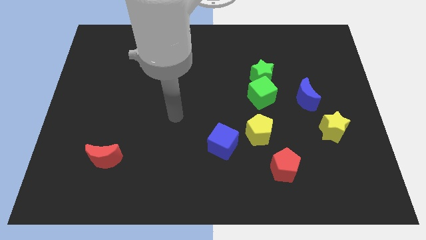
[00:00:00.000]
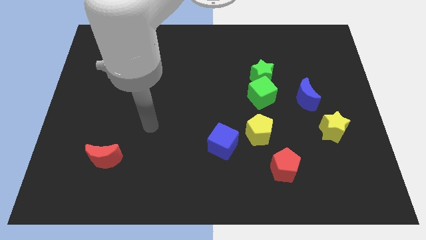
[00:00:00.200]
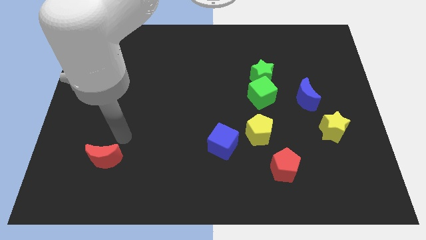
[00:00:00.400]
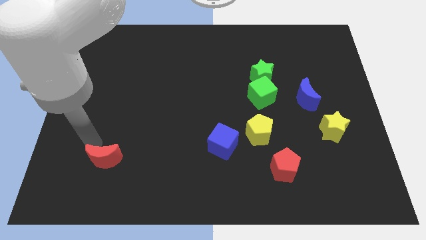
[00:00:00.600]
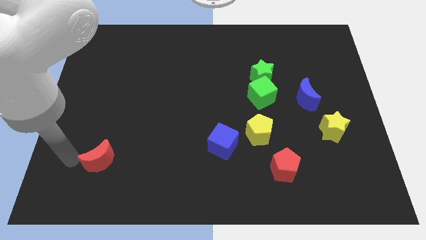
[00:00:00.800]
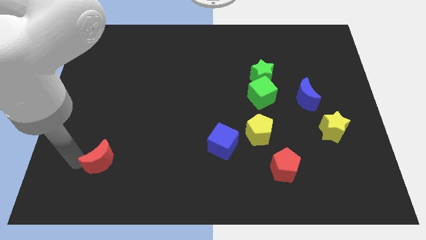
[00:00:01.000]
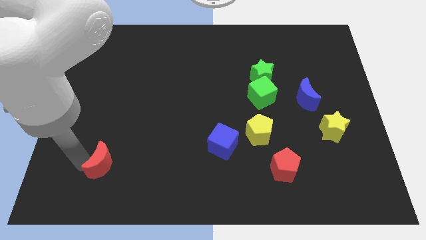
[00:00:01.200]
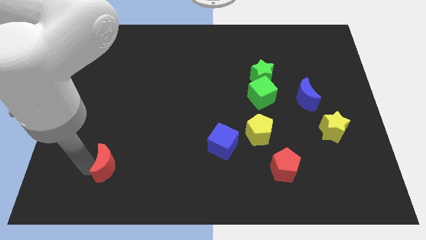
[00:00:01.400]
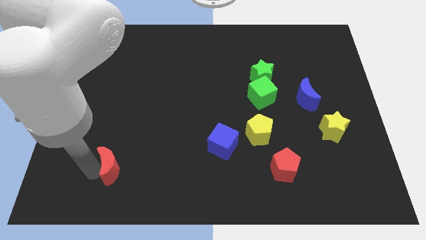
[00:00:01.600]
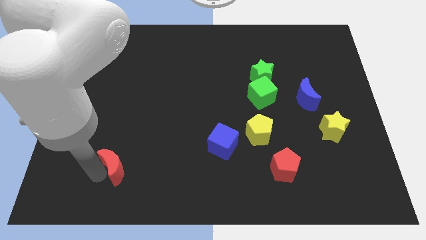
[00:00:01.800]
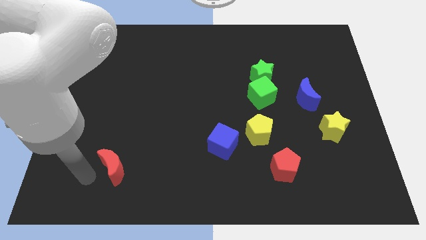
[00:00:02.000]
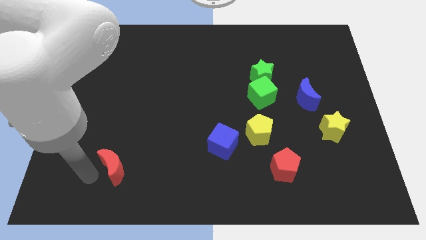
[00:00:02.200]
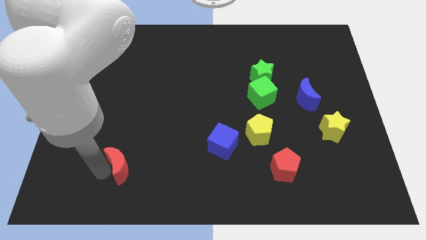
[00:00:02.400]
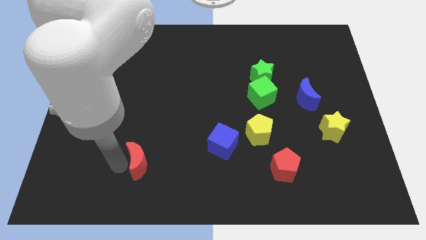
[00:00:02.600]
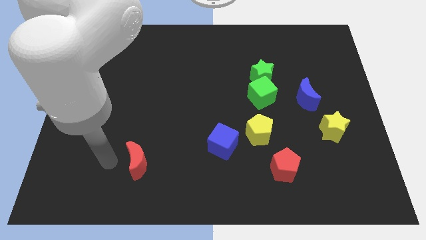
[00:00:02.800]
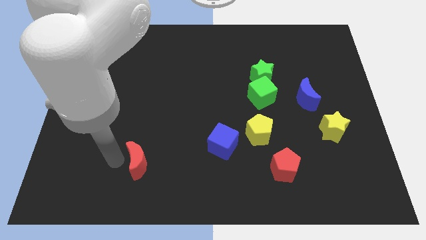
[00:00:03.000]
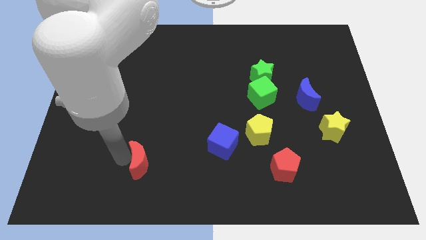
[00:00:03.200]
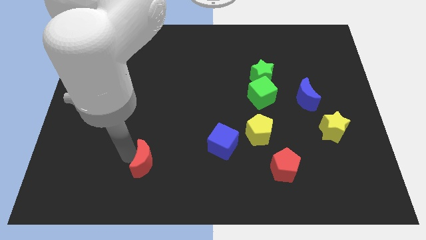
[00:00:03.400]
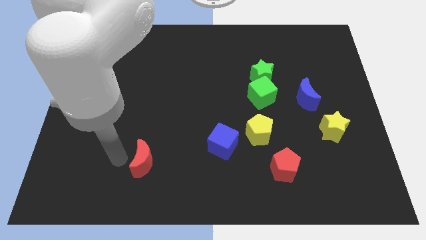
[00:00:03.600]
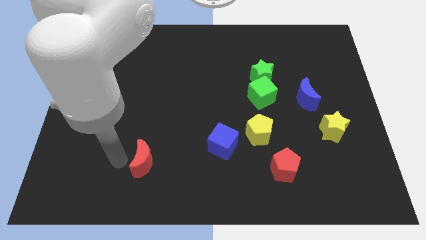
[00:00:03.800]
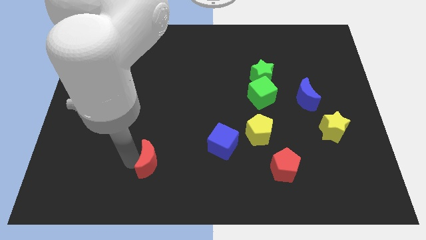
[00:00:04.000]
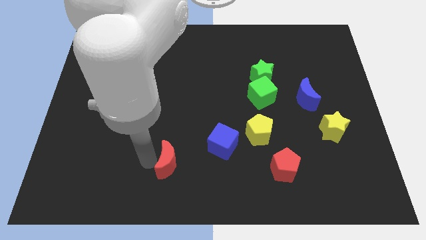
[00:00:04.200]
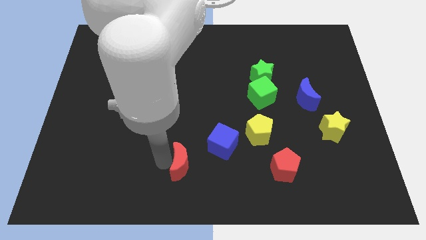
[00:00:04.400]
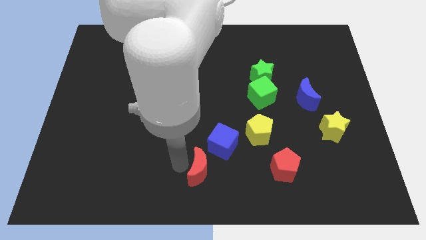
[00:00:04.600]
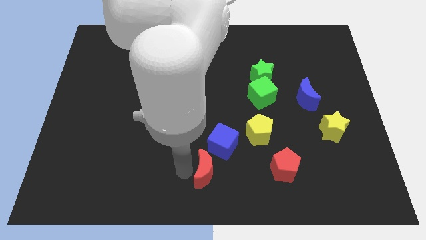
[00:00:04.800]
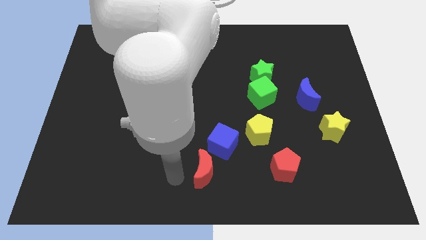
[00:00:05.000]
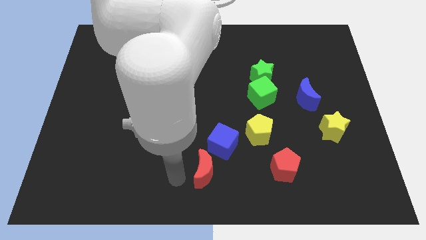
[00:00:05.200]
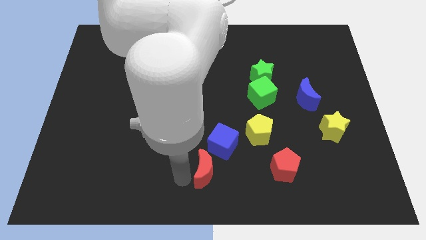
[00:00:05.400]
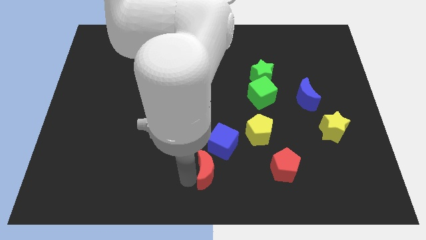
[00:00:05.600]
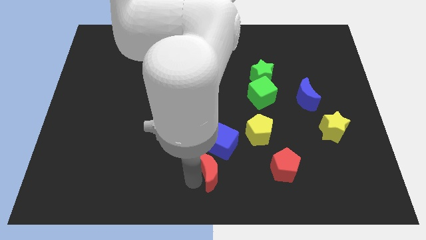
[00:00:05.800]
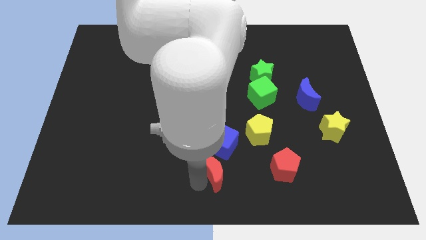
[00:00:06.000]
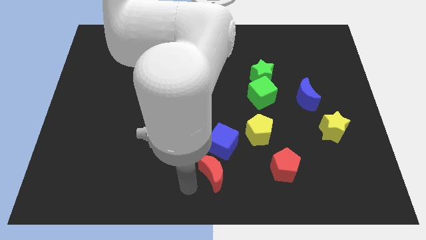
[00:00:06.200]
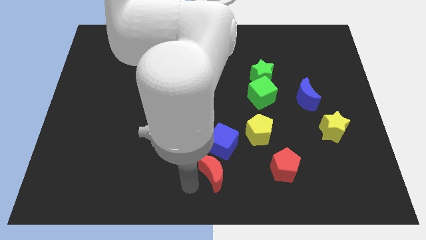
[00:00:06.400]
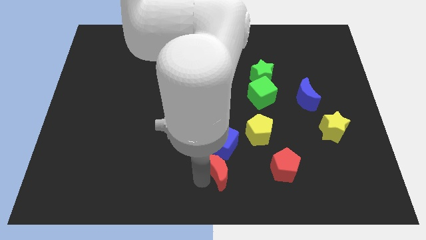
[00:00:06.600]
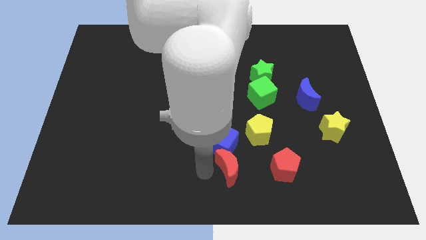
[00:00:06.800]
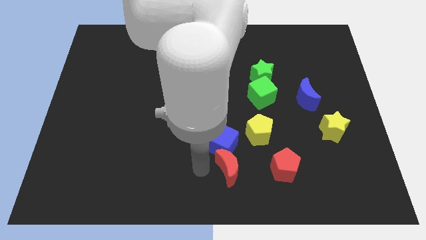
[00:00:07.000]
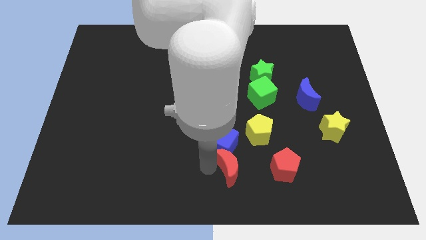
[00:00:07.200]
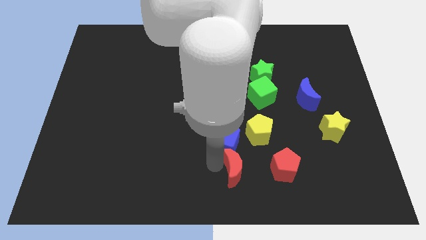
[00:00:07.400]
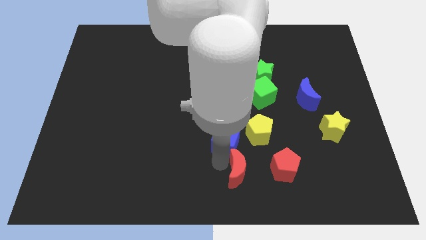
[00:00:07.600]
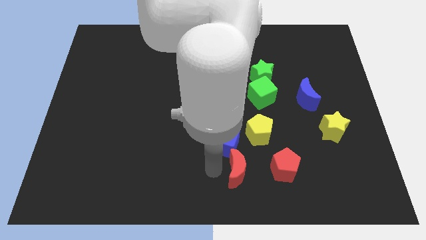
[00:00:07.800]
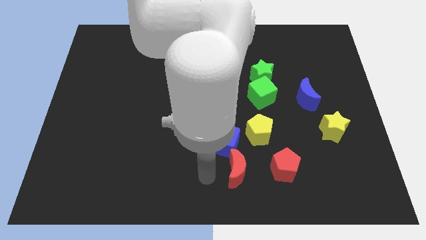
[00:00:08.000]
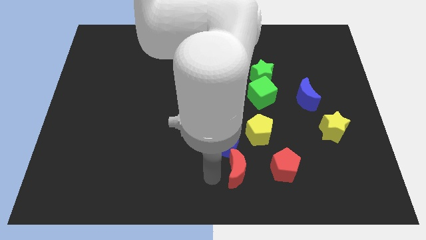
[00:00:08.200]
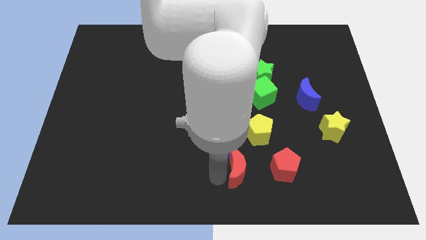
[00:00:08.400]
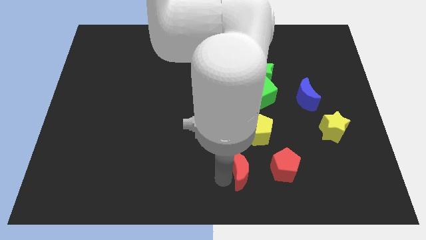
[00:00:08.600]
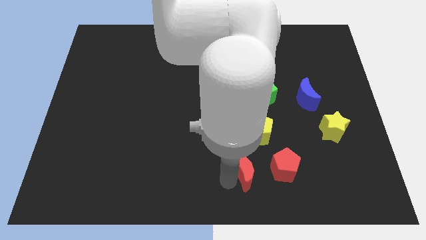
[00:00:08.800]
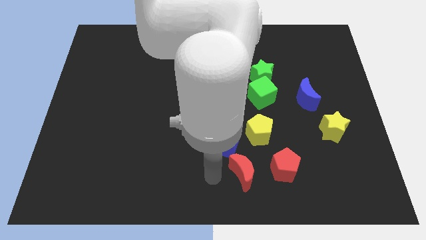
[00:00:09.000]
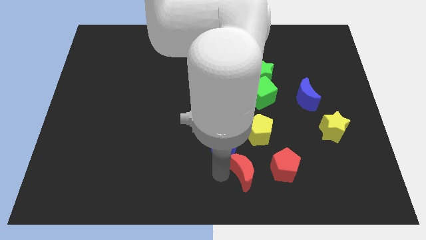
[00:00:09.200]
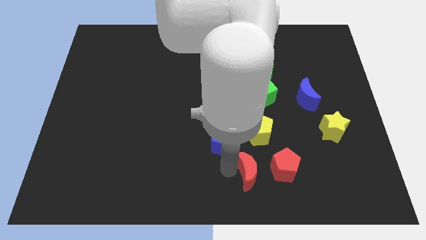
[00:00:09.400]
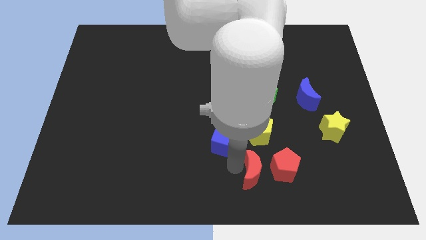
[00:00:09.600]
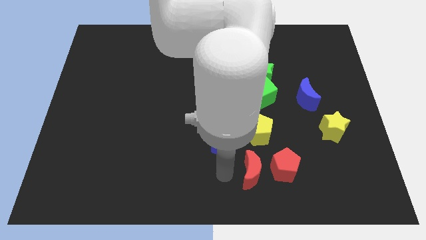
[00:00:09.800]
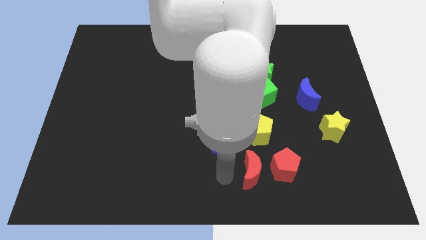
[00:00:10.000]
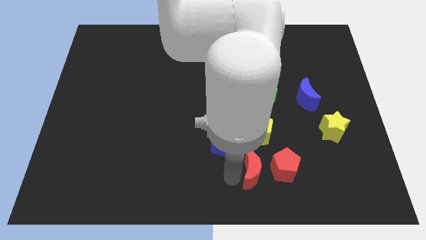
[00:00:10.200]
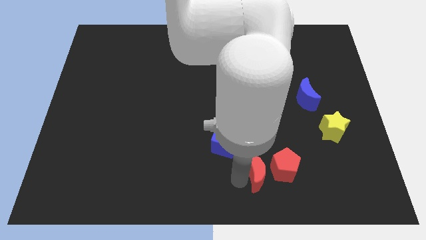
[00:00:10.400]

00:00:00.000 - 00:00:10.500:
put the red moon towards the red pentagon

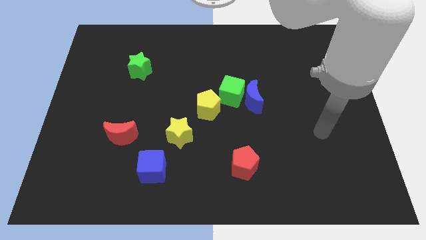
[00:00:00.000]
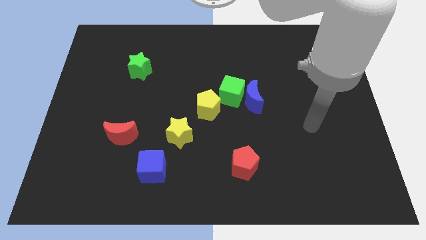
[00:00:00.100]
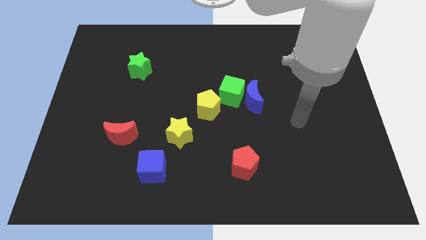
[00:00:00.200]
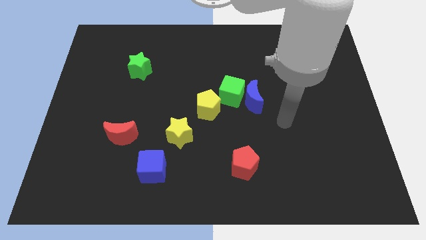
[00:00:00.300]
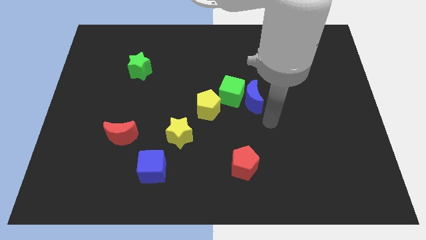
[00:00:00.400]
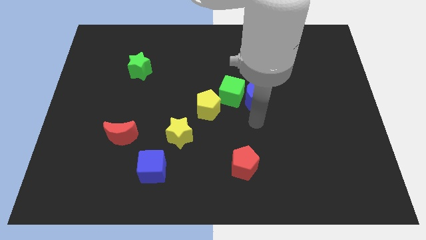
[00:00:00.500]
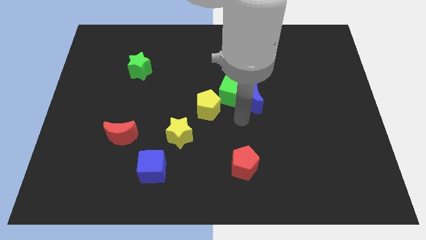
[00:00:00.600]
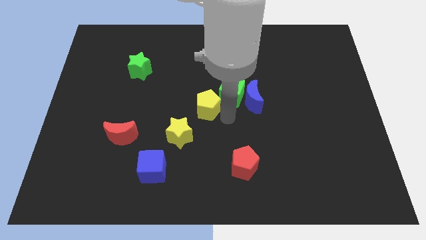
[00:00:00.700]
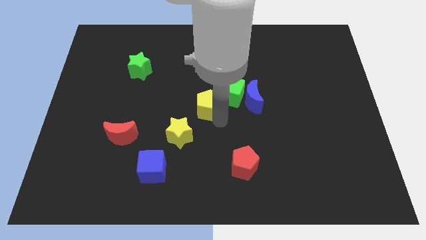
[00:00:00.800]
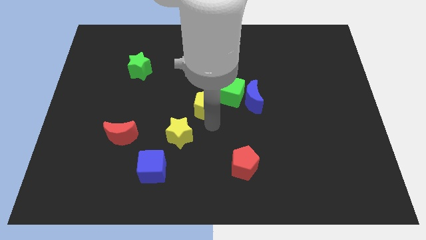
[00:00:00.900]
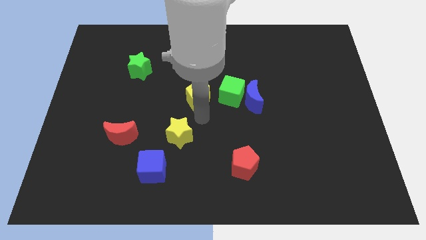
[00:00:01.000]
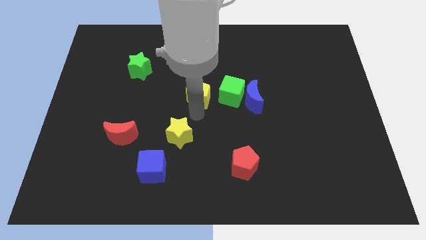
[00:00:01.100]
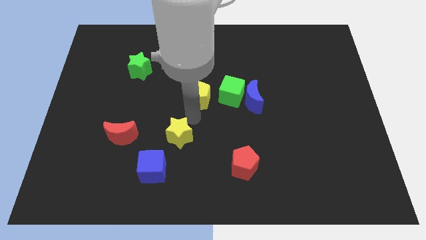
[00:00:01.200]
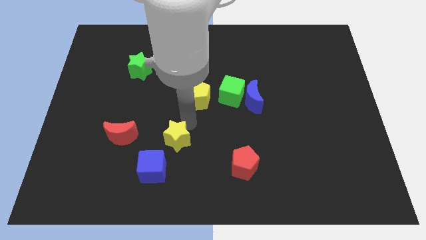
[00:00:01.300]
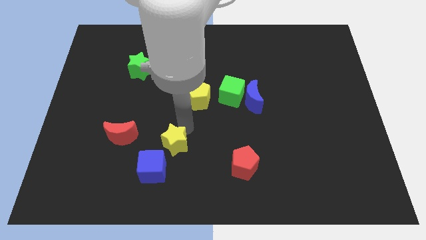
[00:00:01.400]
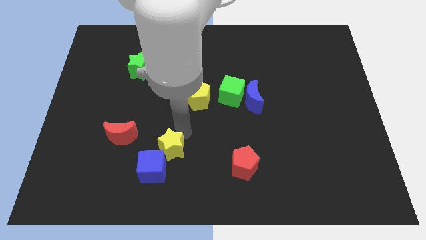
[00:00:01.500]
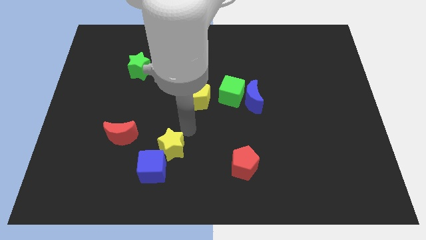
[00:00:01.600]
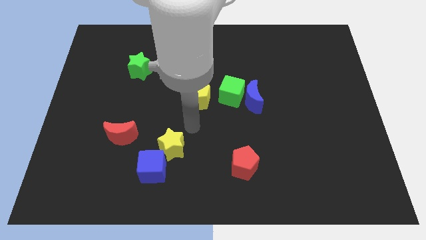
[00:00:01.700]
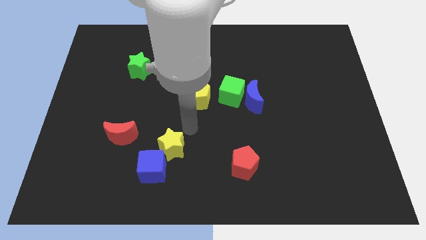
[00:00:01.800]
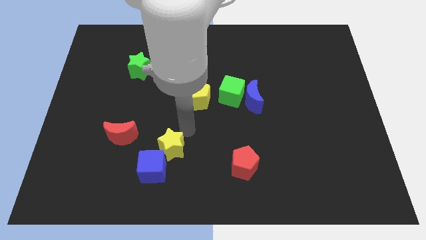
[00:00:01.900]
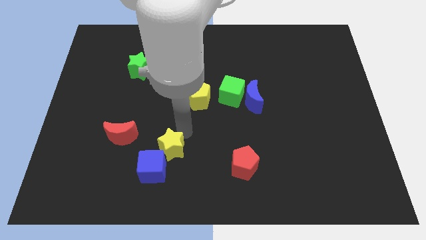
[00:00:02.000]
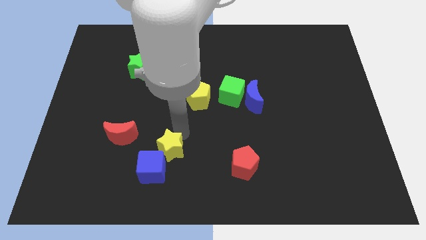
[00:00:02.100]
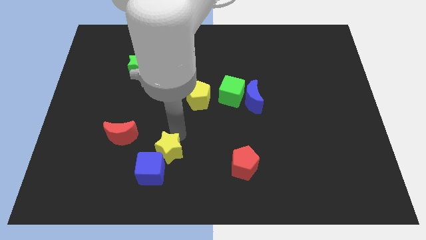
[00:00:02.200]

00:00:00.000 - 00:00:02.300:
push the yellow star towards the blue cube

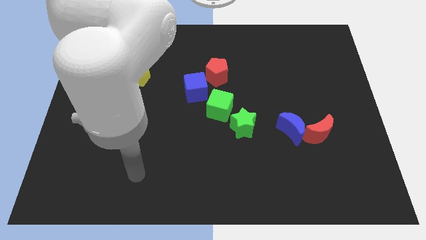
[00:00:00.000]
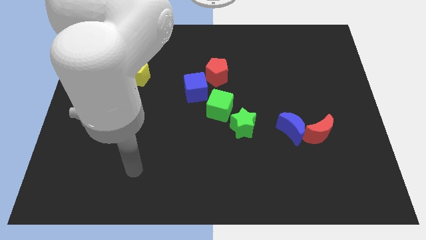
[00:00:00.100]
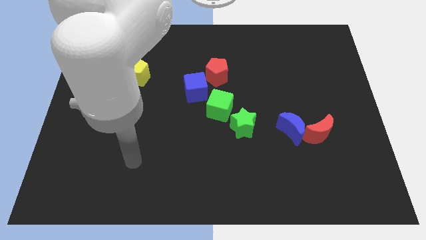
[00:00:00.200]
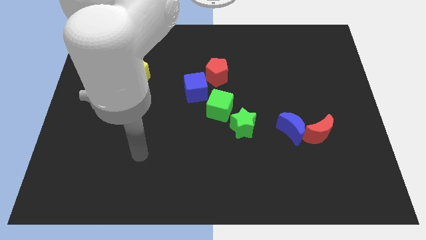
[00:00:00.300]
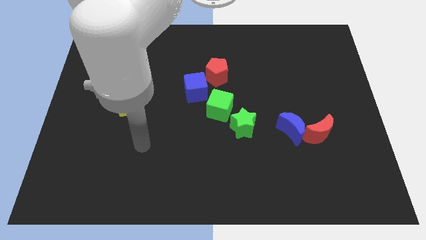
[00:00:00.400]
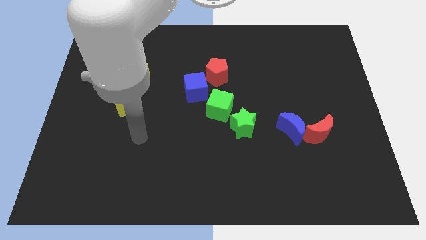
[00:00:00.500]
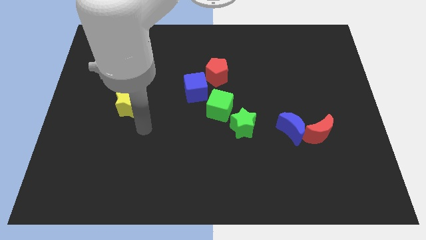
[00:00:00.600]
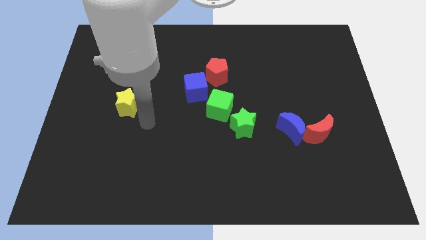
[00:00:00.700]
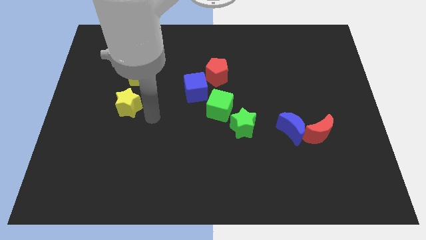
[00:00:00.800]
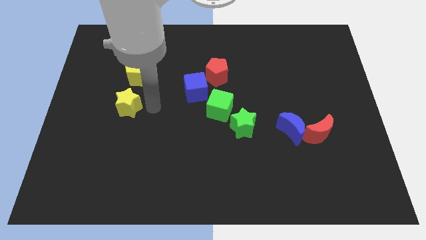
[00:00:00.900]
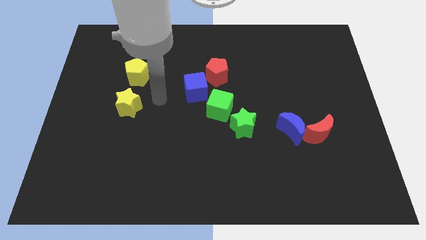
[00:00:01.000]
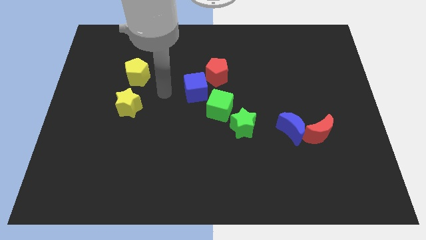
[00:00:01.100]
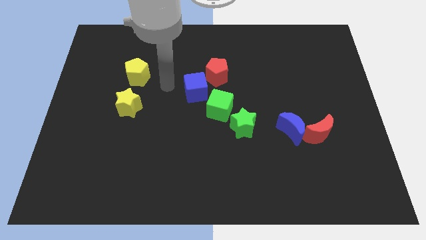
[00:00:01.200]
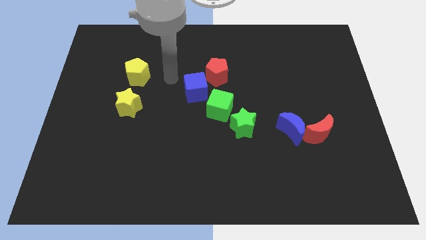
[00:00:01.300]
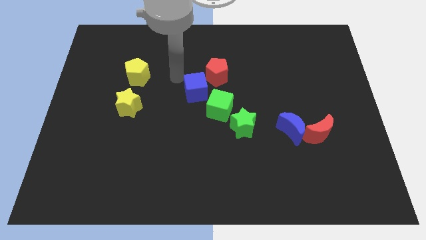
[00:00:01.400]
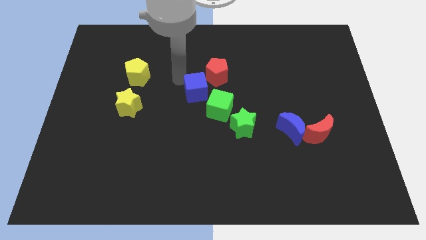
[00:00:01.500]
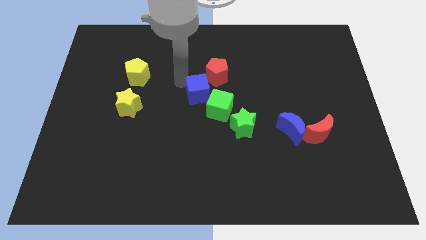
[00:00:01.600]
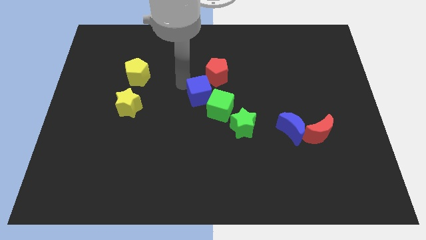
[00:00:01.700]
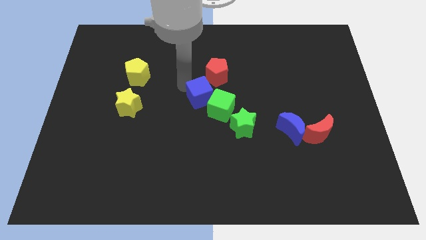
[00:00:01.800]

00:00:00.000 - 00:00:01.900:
move the blue cube next to the green cube
